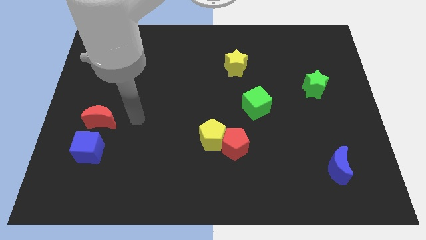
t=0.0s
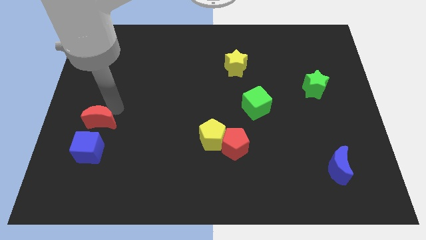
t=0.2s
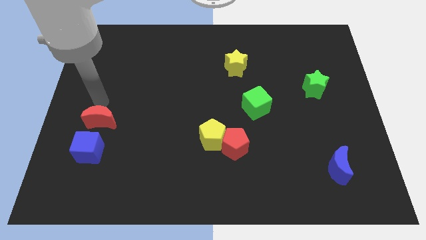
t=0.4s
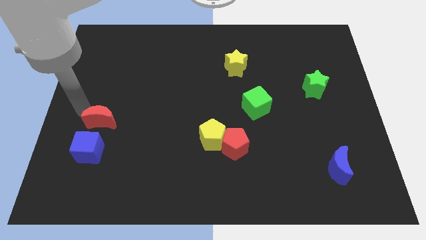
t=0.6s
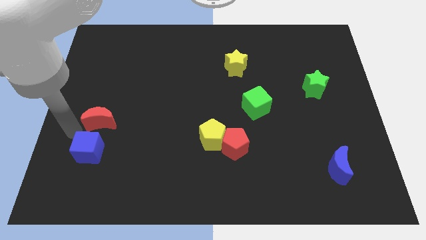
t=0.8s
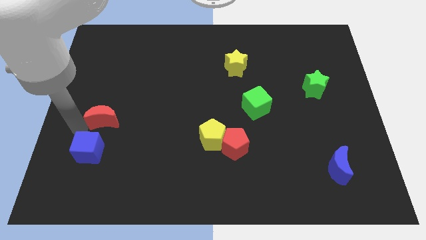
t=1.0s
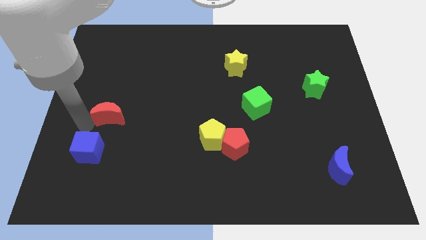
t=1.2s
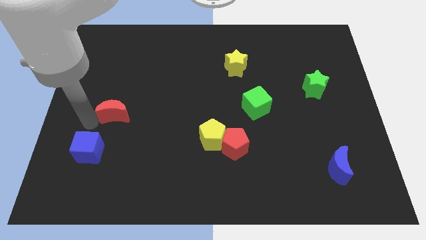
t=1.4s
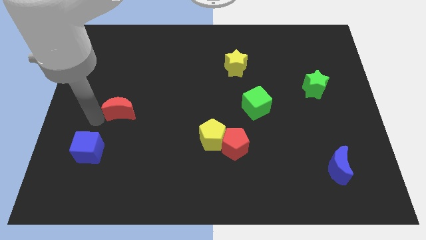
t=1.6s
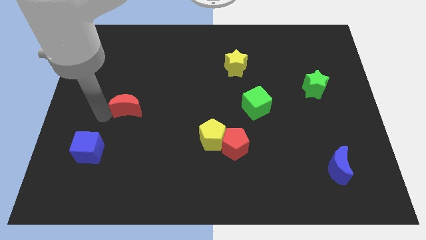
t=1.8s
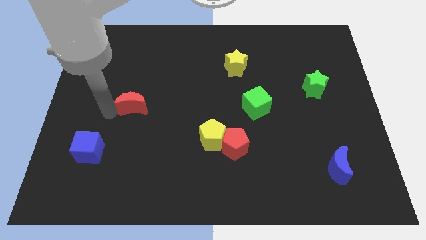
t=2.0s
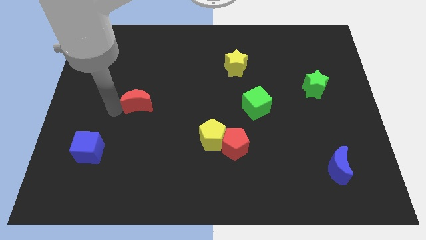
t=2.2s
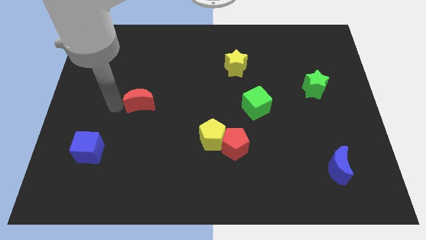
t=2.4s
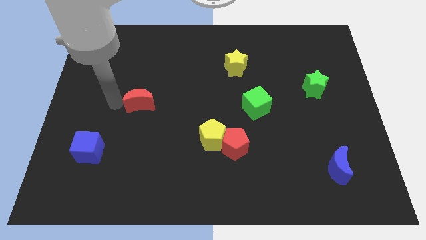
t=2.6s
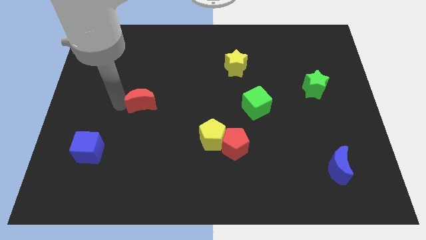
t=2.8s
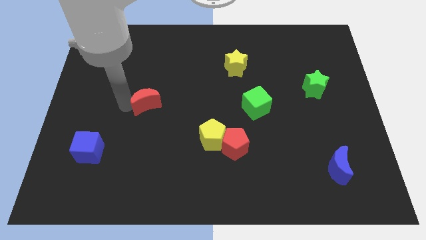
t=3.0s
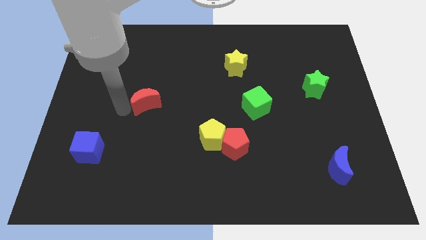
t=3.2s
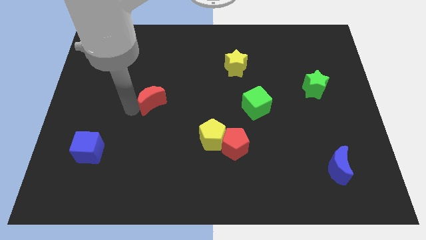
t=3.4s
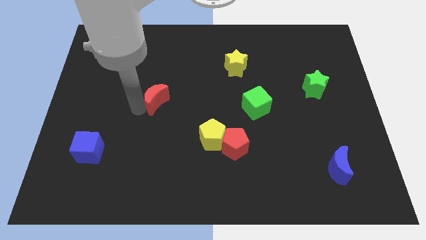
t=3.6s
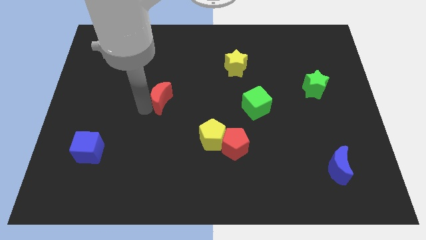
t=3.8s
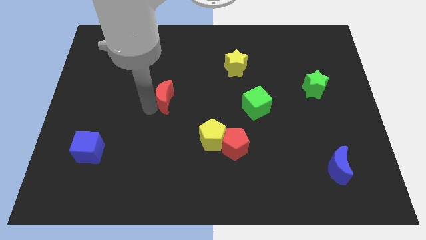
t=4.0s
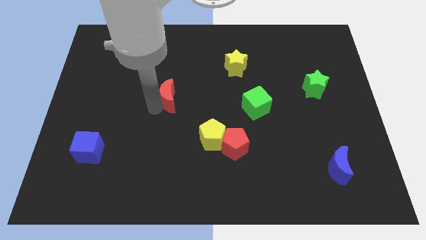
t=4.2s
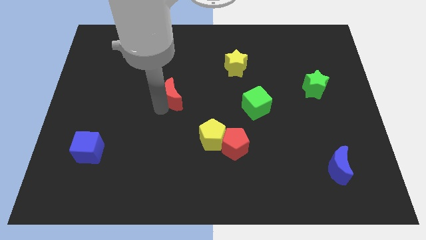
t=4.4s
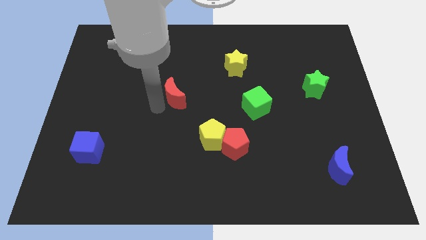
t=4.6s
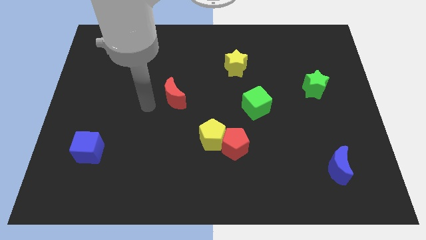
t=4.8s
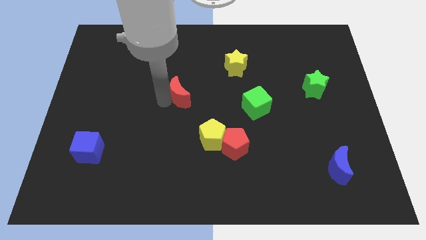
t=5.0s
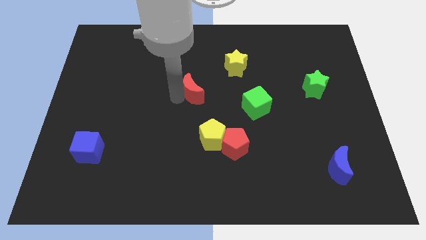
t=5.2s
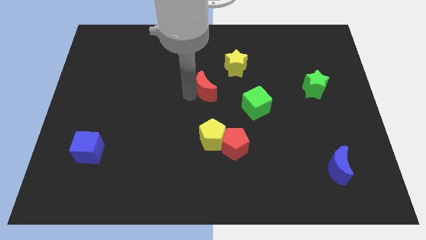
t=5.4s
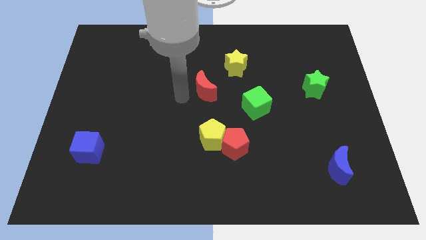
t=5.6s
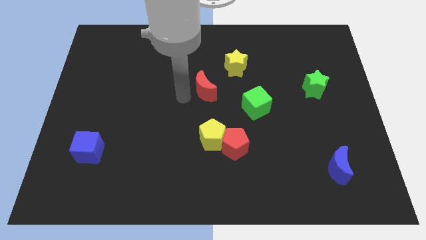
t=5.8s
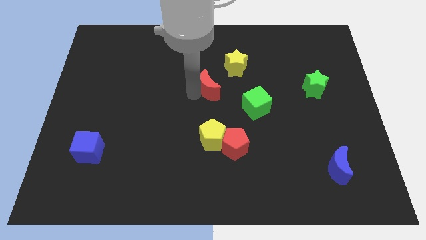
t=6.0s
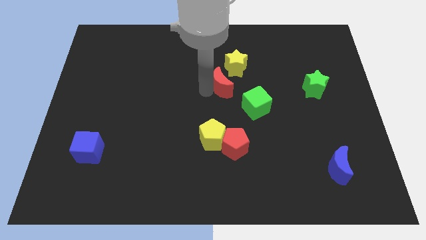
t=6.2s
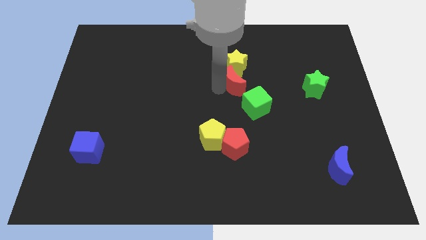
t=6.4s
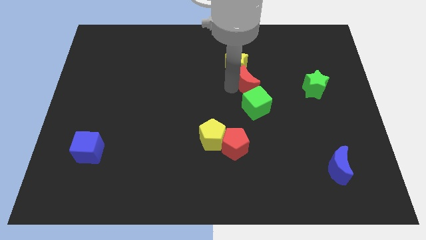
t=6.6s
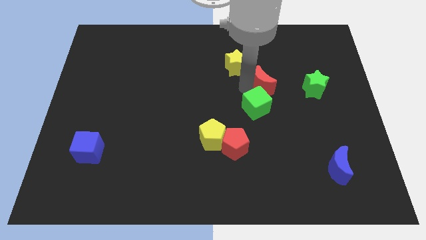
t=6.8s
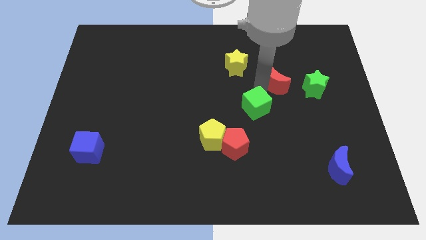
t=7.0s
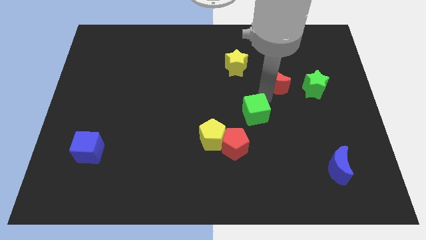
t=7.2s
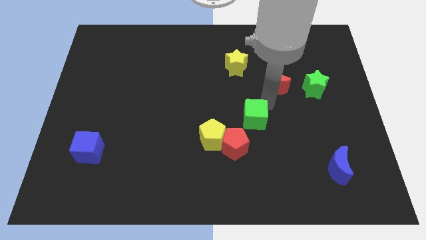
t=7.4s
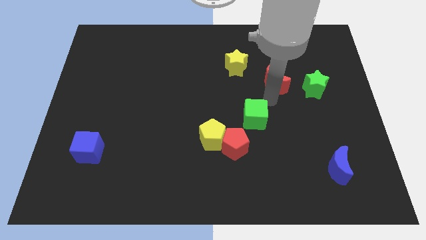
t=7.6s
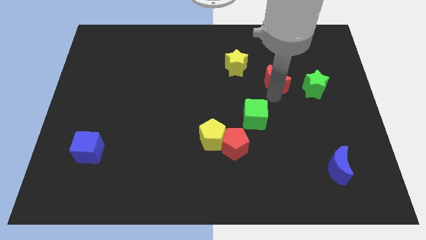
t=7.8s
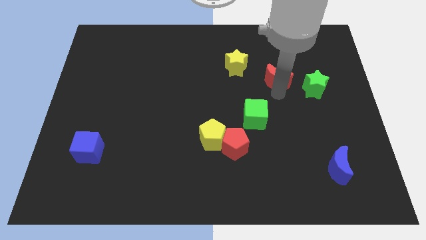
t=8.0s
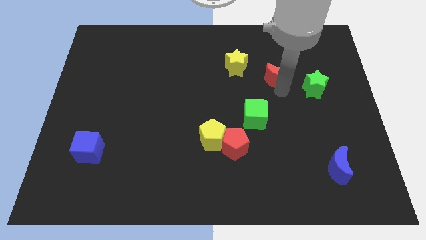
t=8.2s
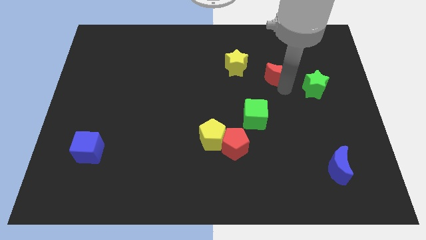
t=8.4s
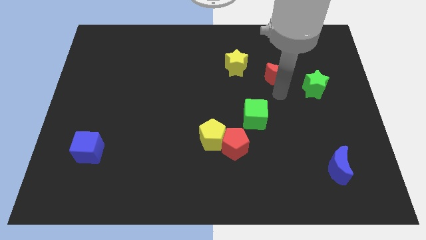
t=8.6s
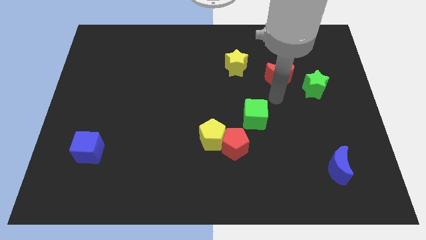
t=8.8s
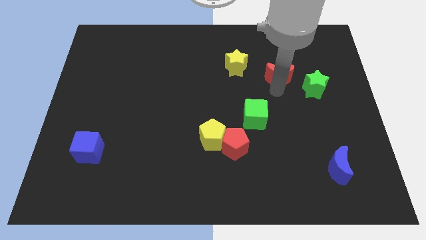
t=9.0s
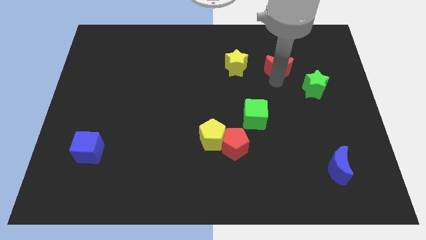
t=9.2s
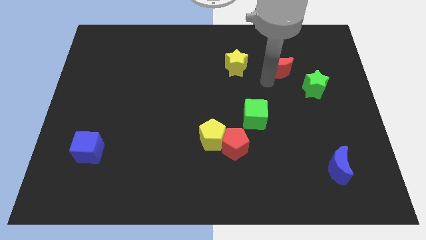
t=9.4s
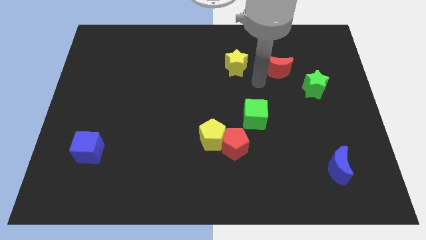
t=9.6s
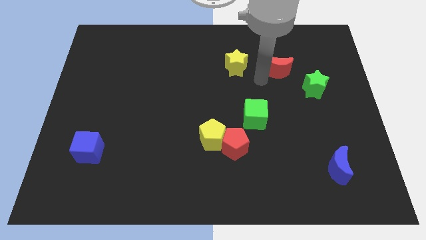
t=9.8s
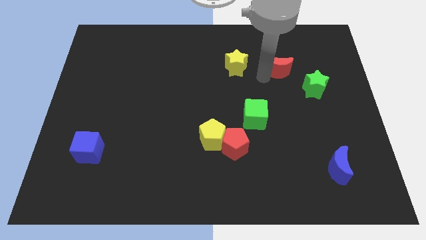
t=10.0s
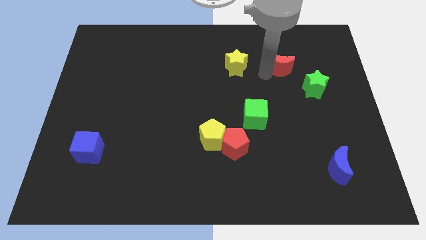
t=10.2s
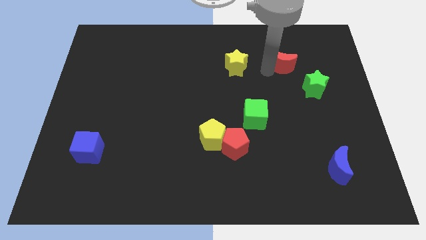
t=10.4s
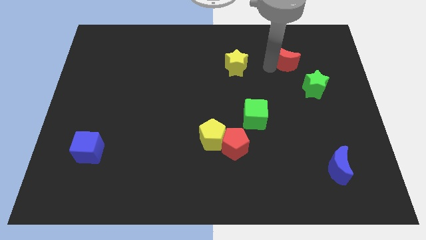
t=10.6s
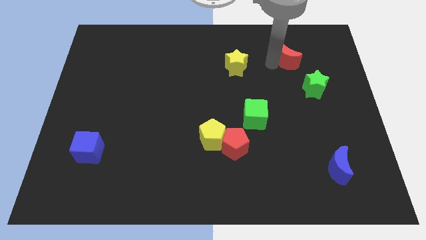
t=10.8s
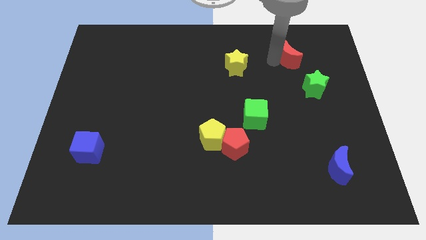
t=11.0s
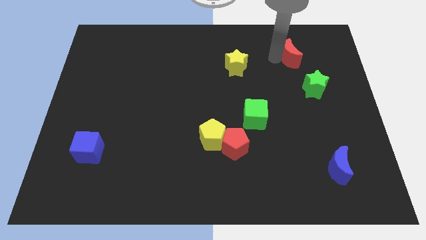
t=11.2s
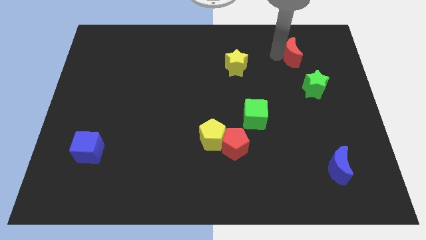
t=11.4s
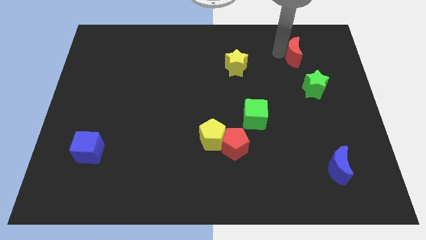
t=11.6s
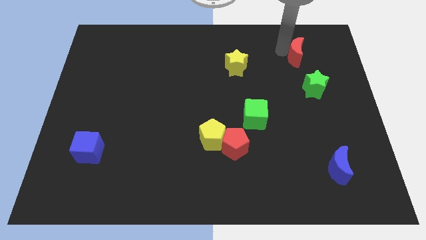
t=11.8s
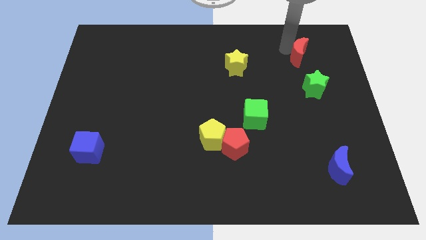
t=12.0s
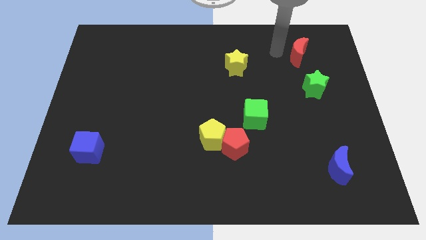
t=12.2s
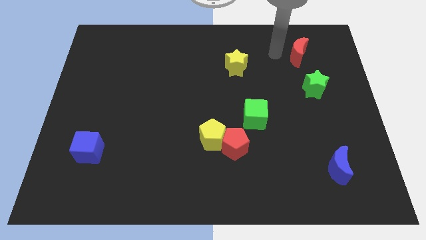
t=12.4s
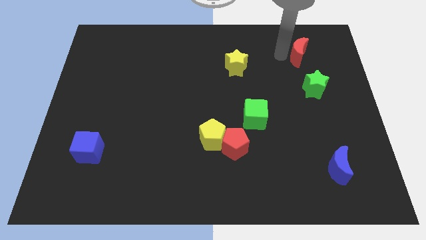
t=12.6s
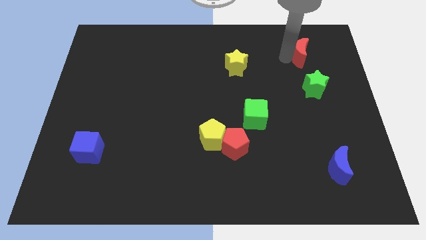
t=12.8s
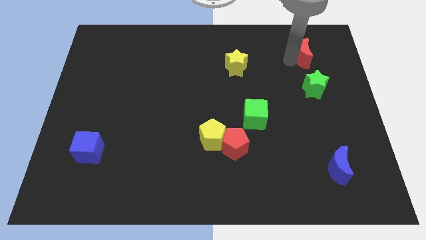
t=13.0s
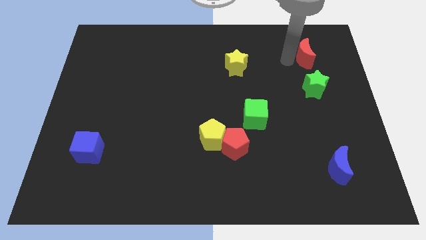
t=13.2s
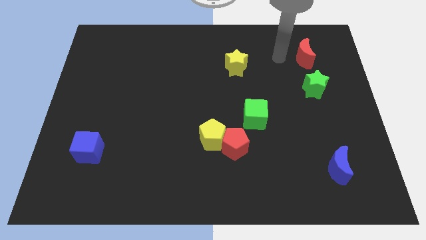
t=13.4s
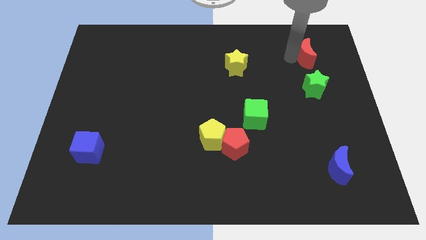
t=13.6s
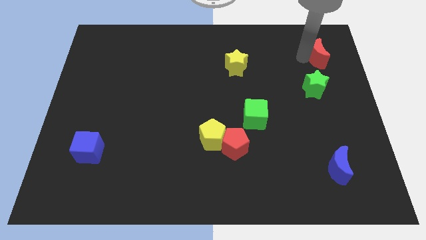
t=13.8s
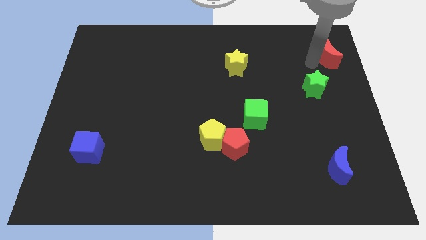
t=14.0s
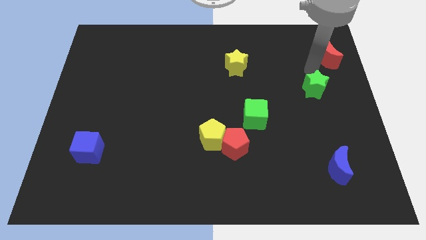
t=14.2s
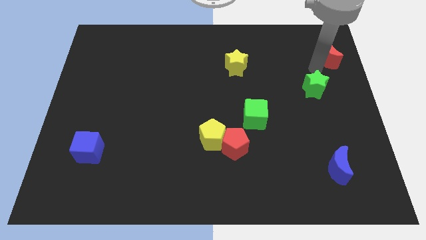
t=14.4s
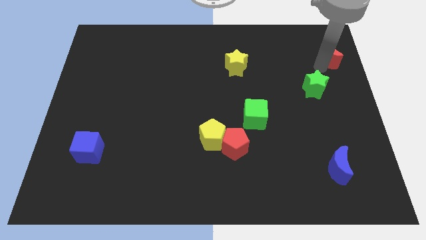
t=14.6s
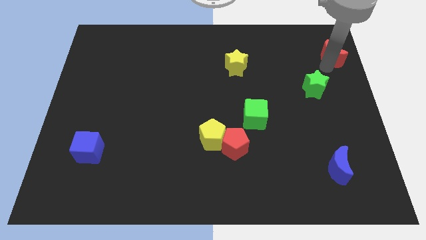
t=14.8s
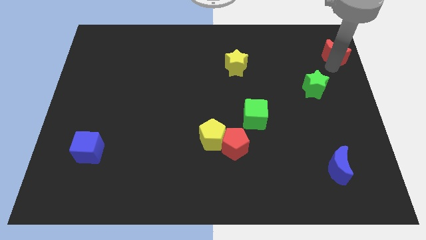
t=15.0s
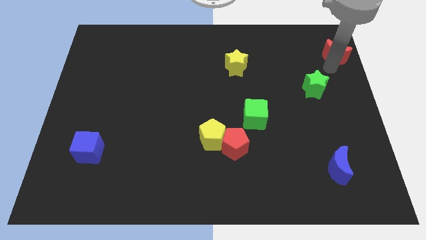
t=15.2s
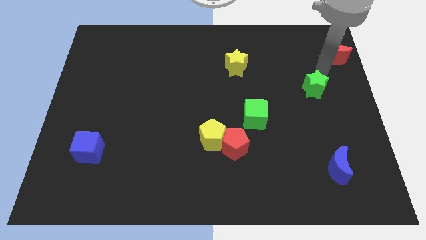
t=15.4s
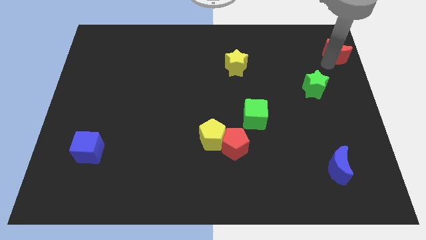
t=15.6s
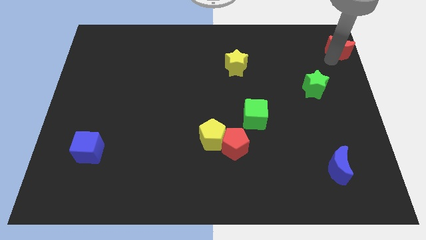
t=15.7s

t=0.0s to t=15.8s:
slide the red moon to the top right of the board
